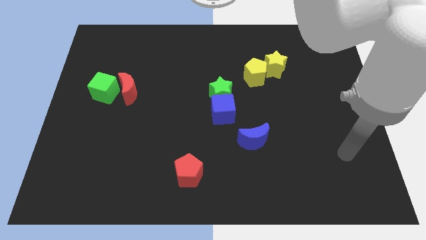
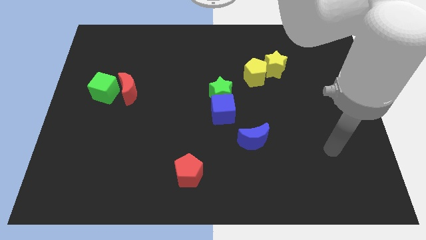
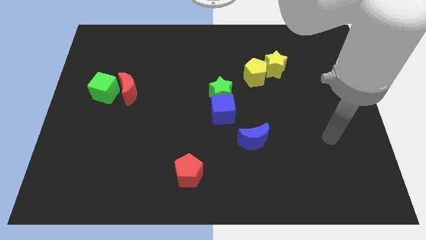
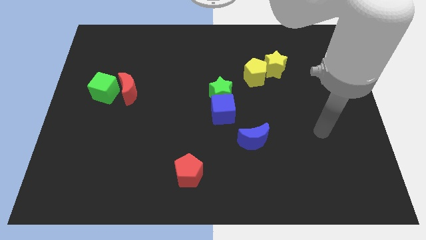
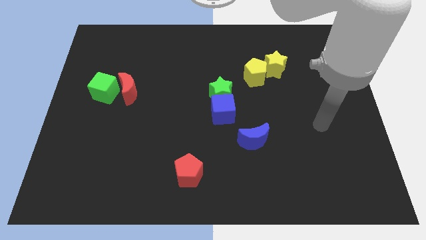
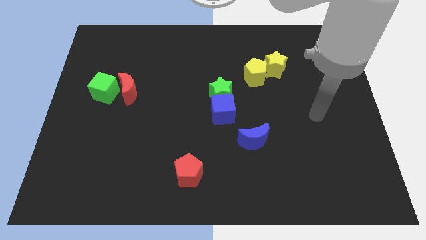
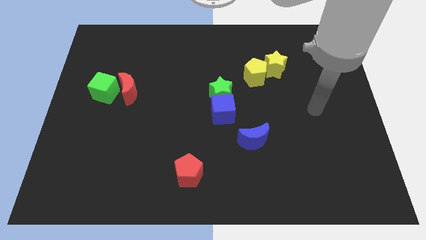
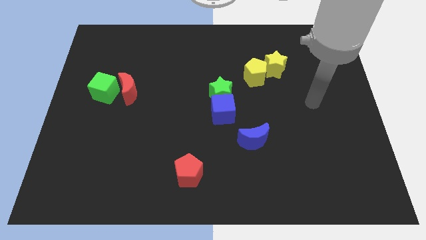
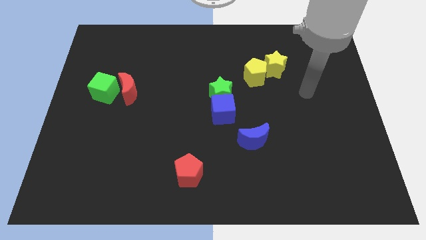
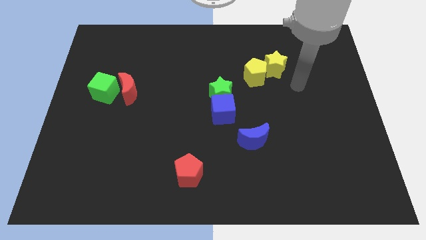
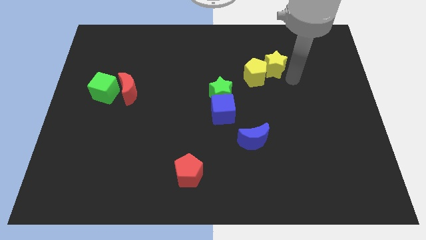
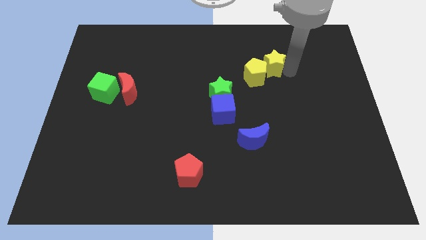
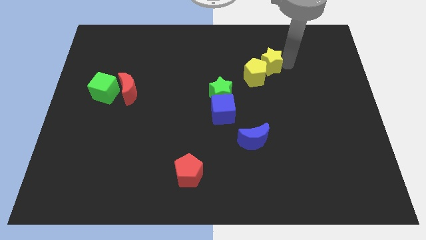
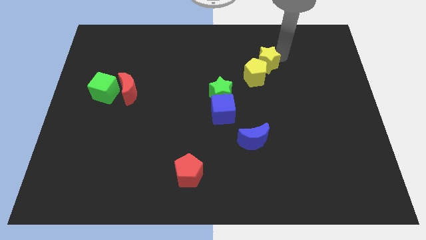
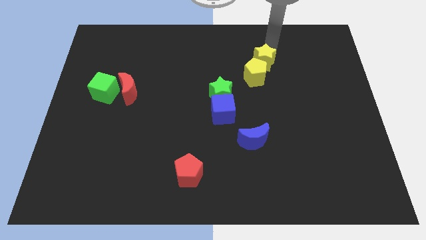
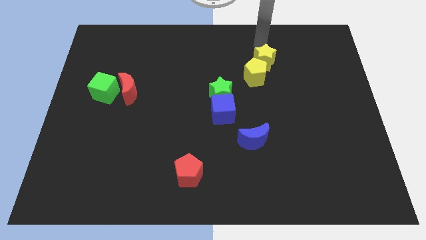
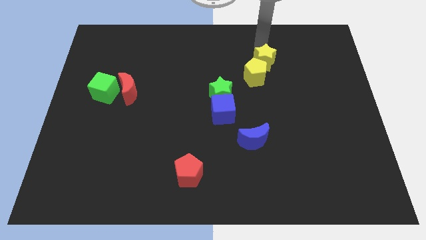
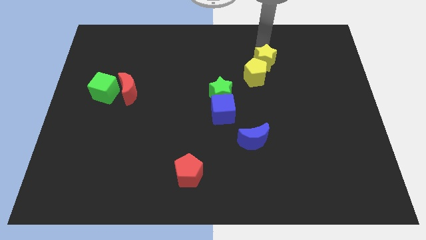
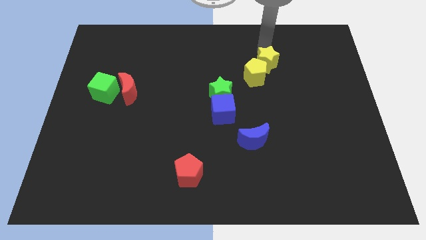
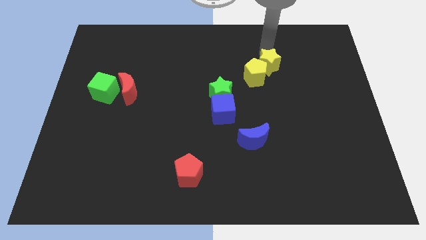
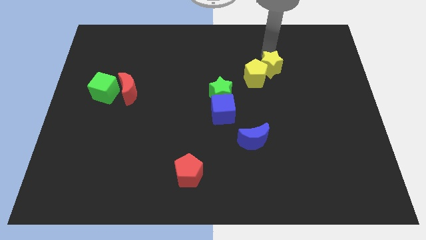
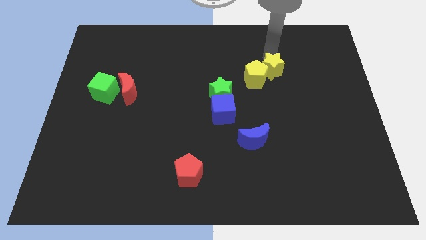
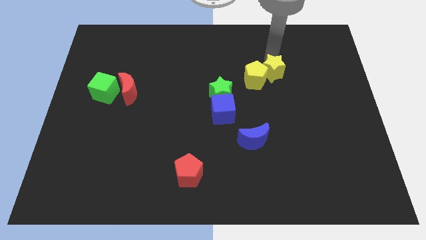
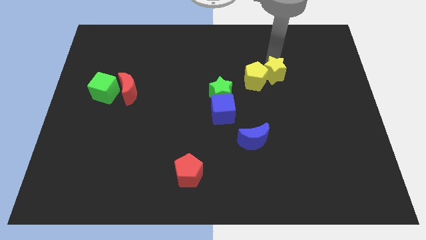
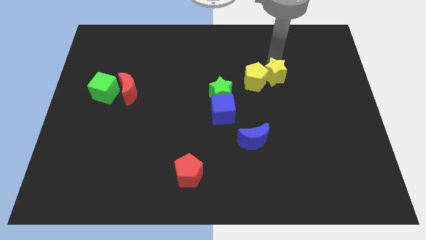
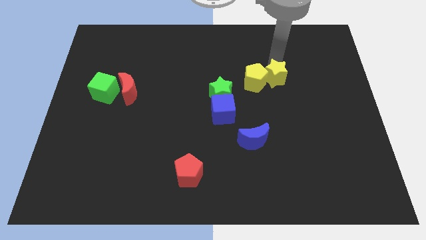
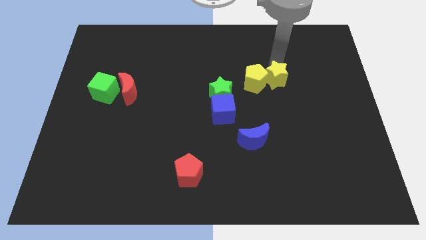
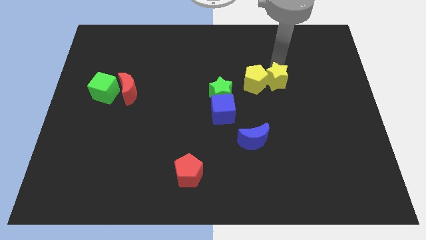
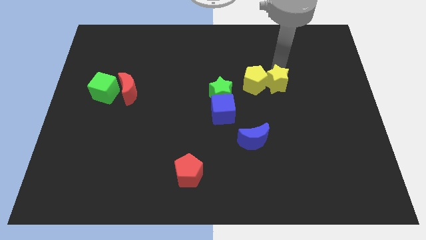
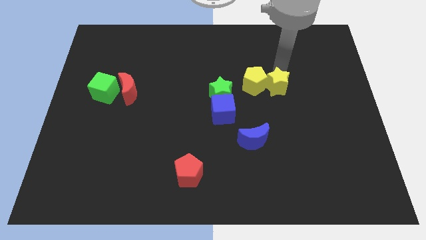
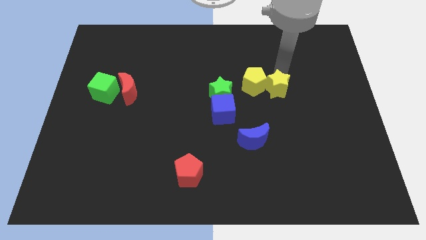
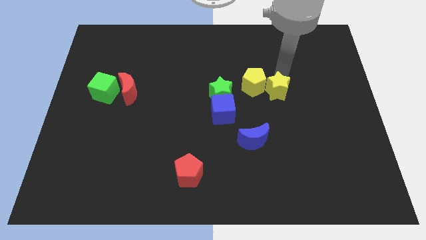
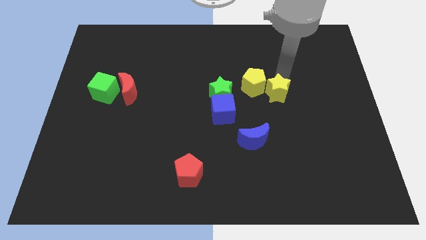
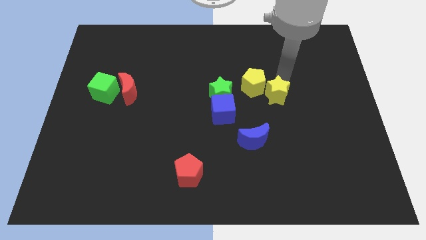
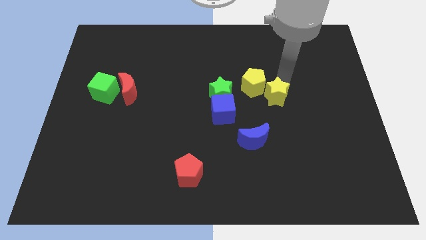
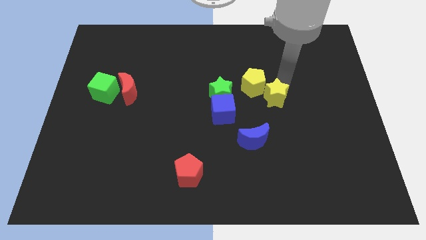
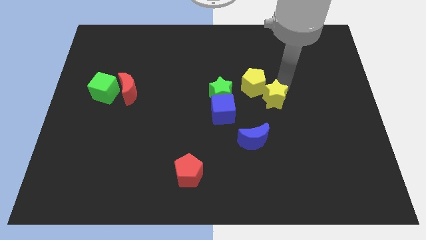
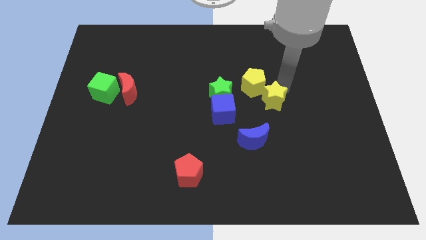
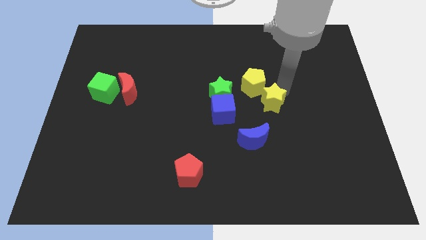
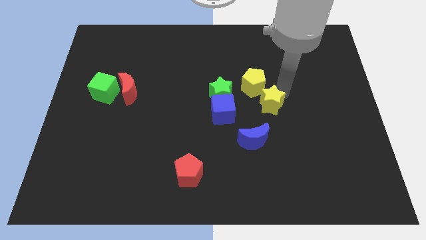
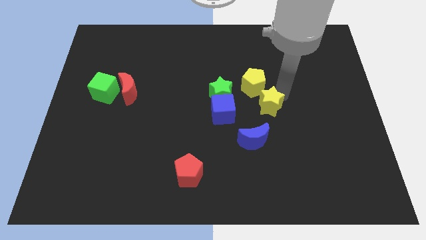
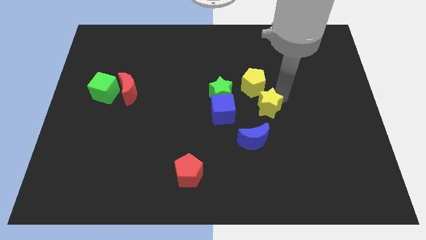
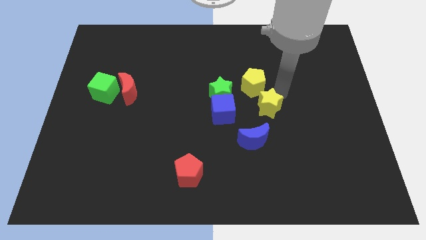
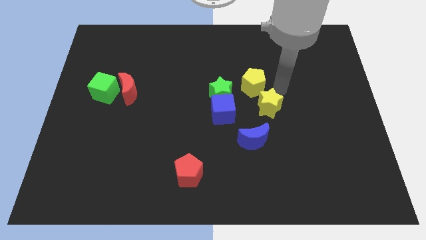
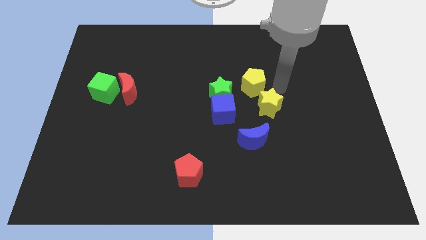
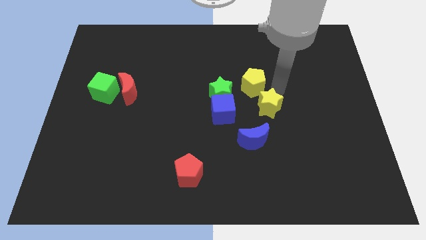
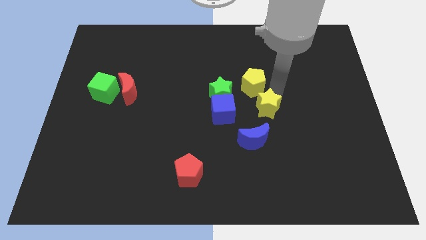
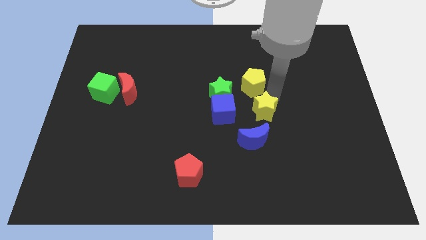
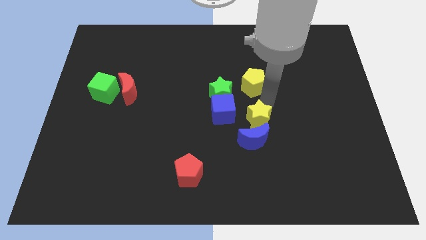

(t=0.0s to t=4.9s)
put the yellow star next to the blue moon

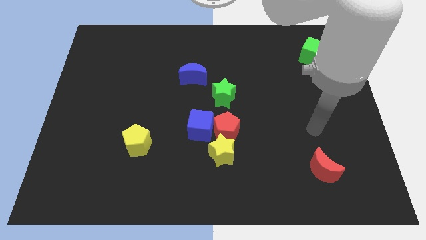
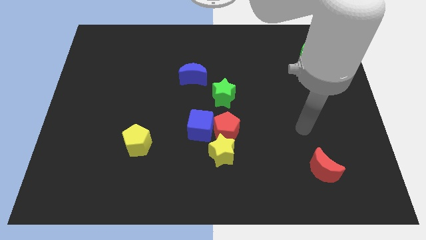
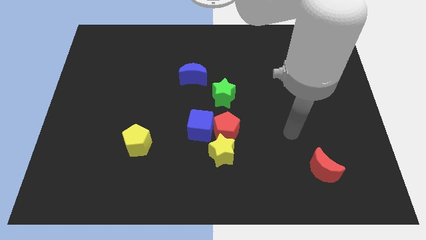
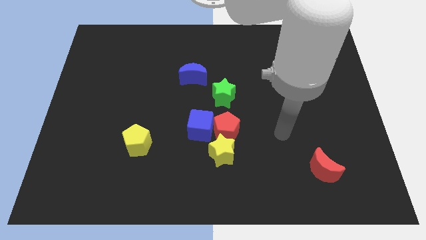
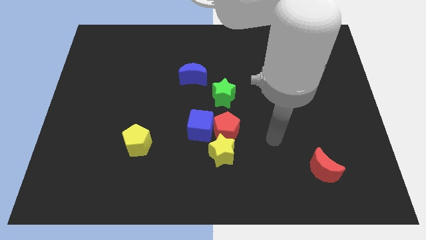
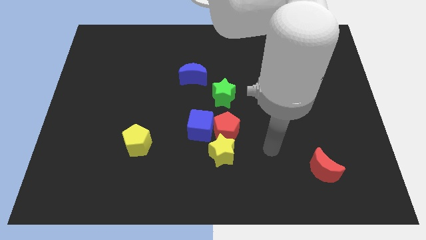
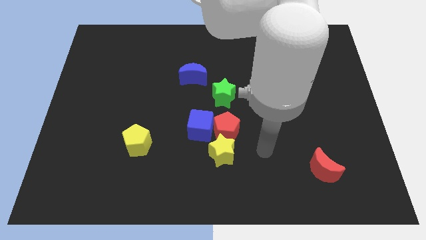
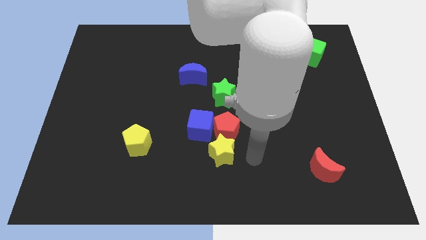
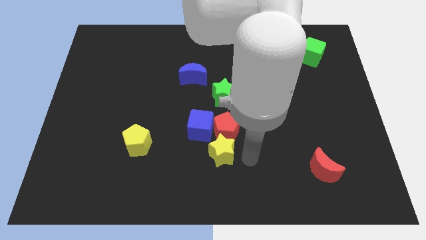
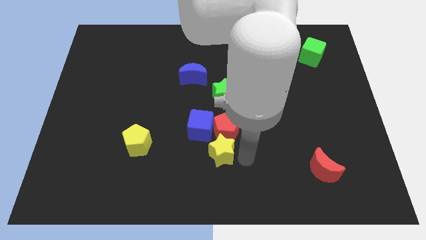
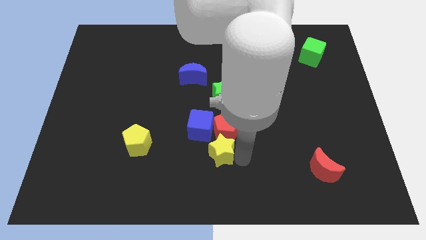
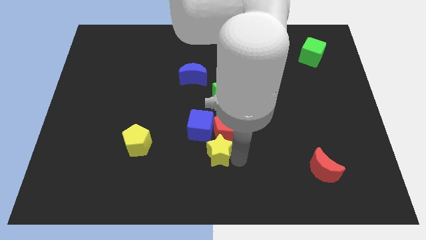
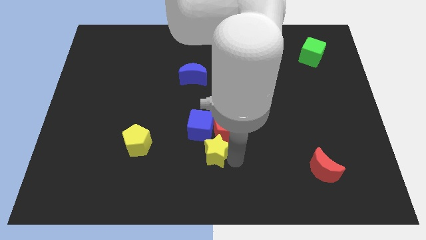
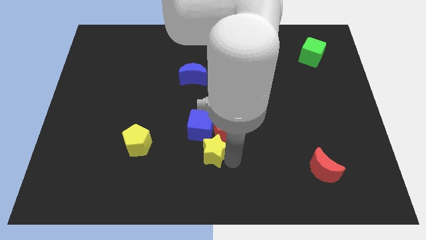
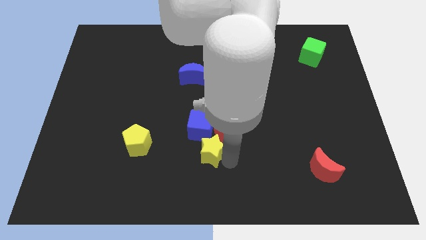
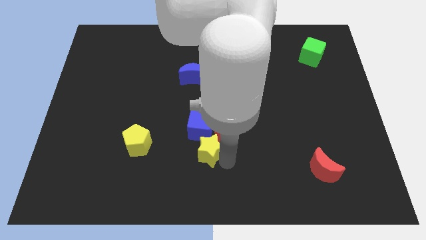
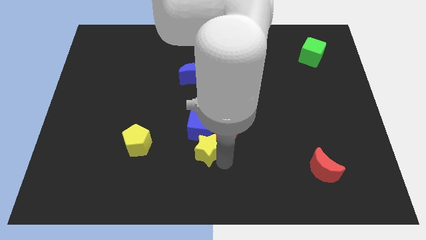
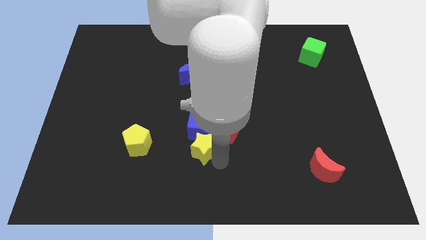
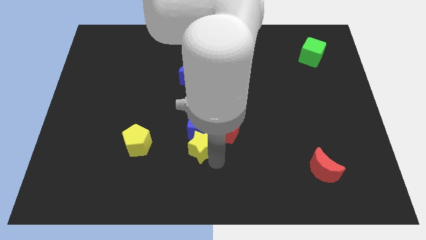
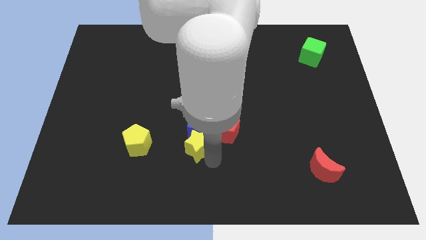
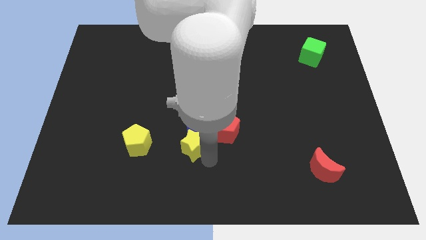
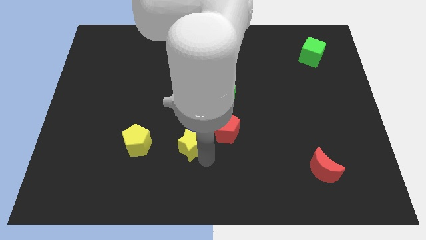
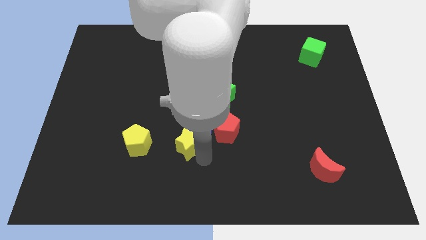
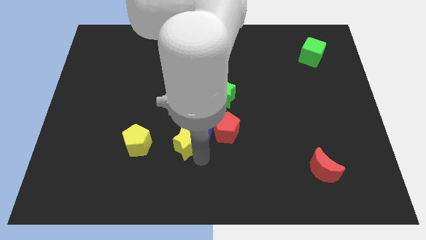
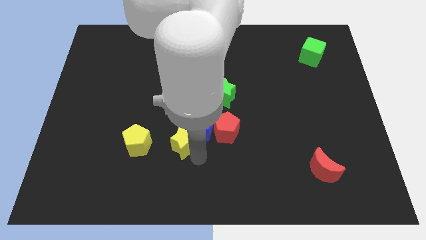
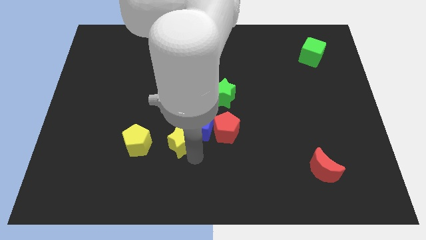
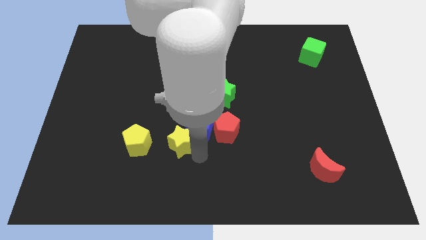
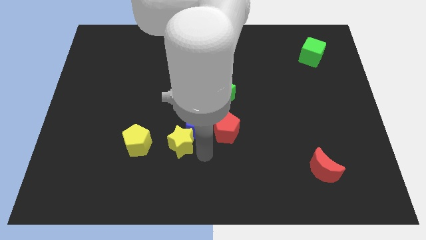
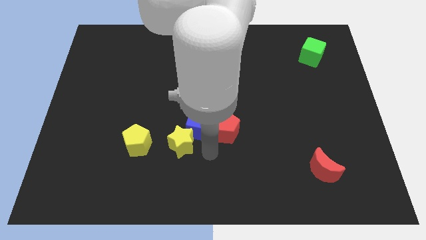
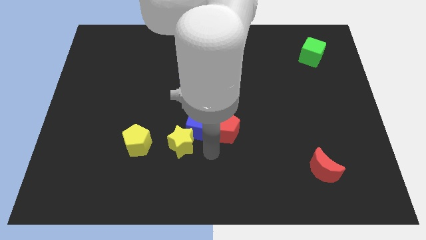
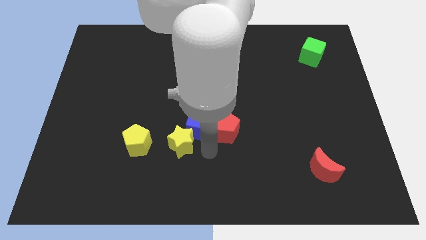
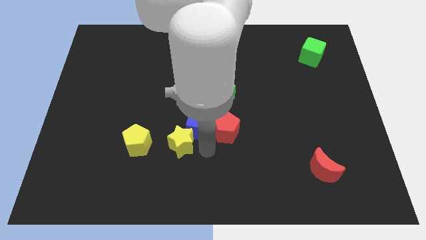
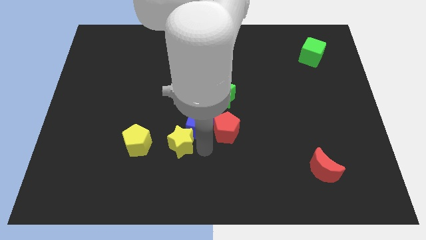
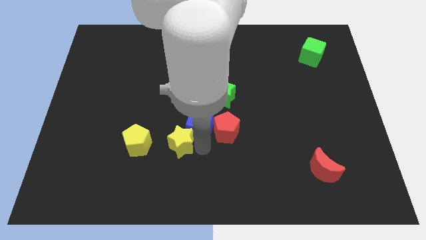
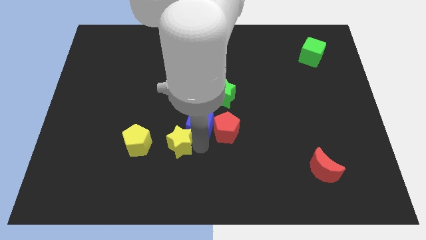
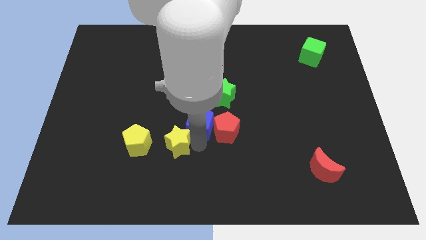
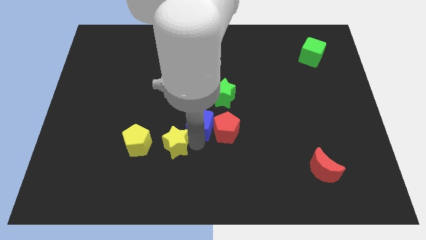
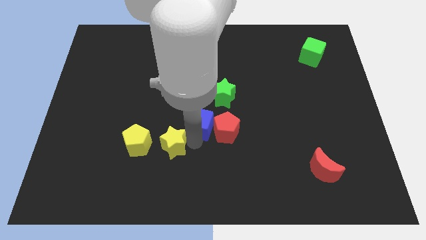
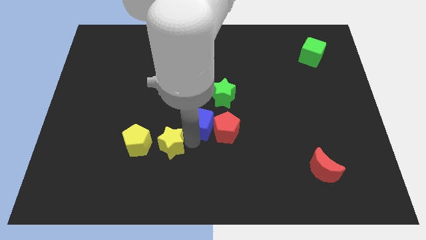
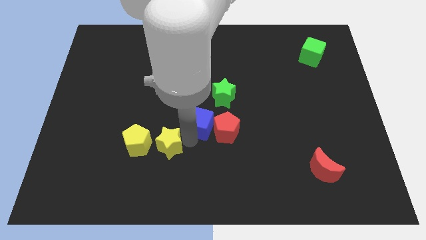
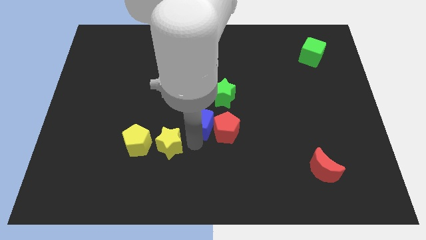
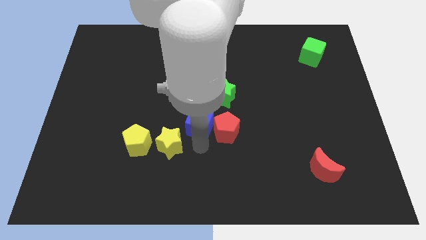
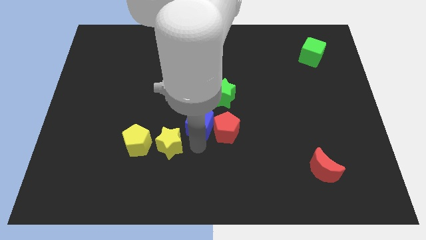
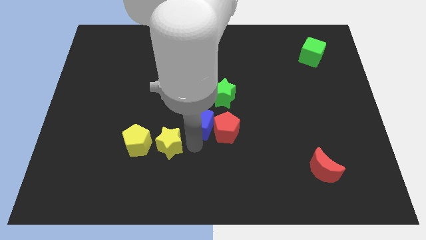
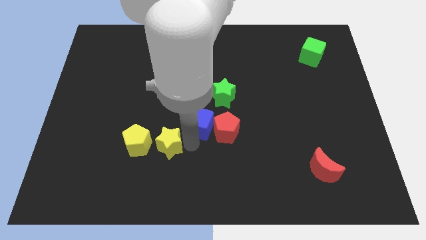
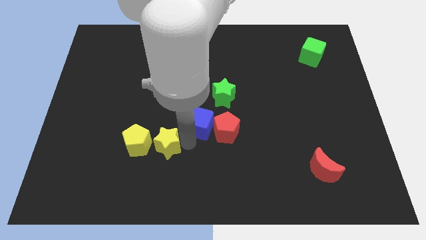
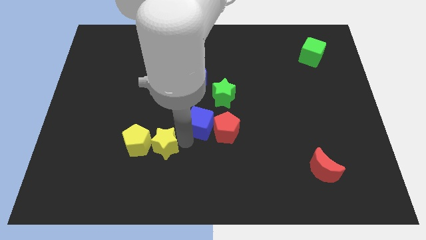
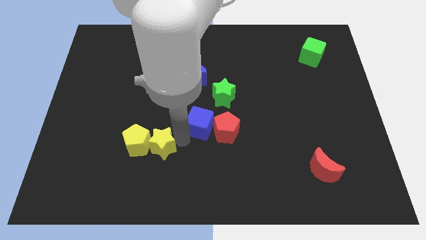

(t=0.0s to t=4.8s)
move the yellow star next to the yellow pentagon
